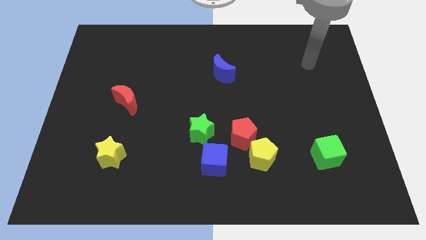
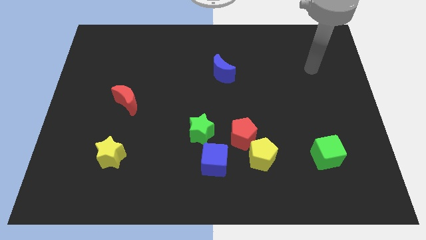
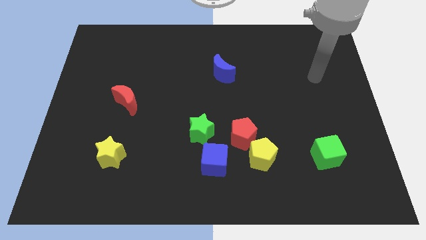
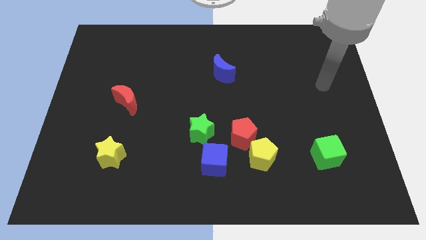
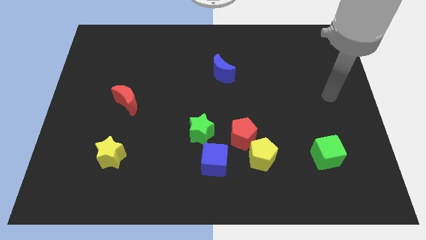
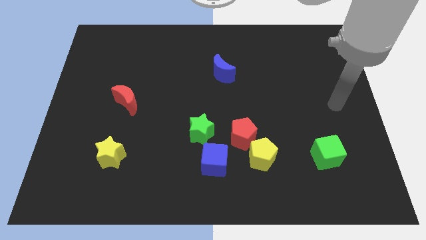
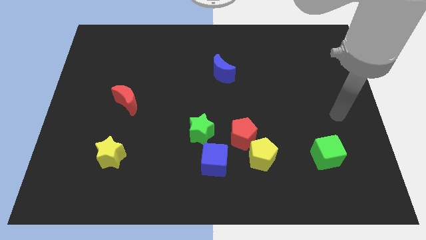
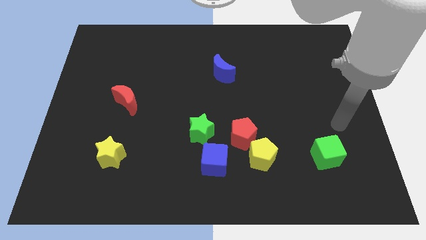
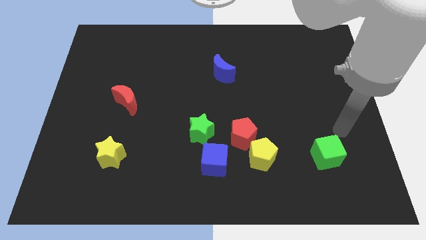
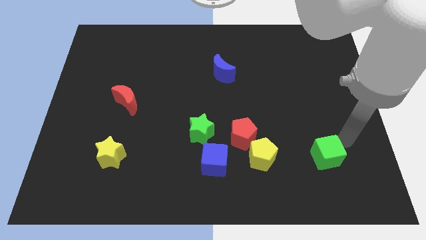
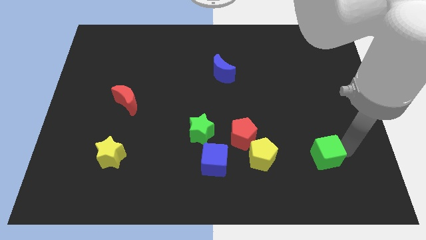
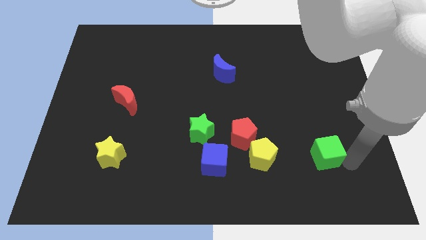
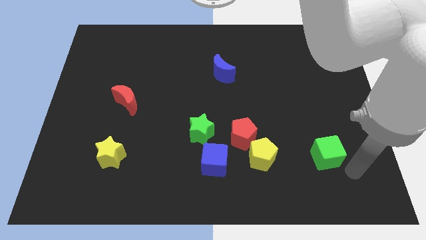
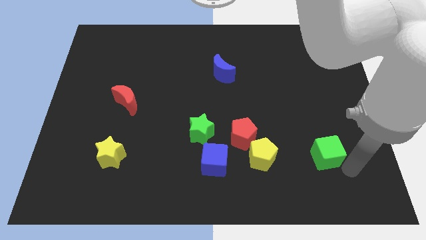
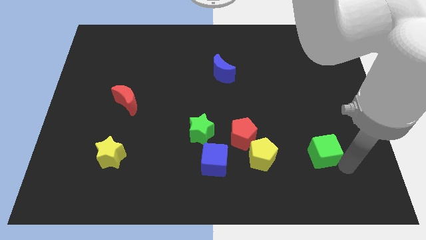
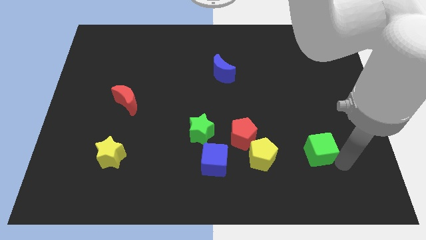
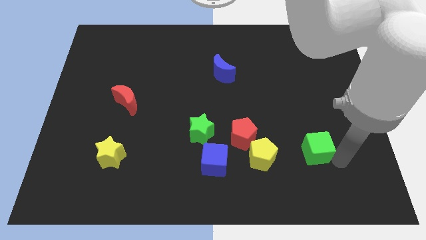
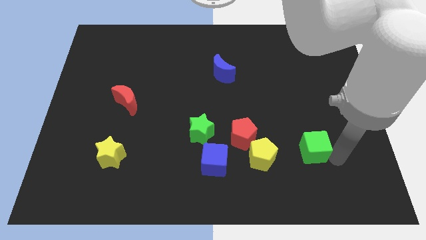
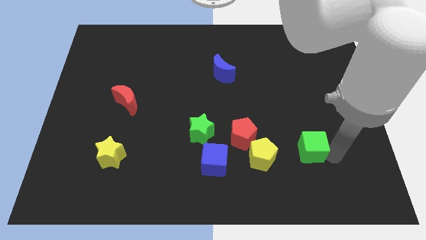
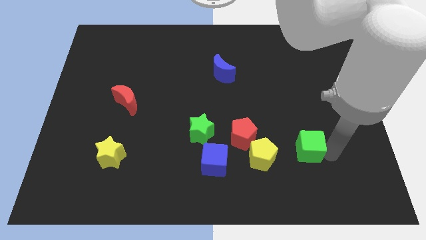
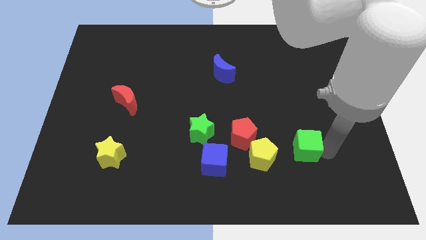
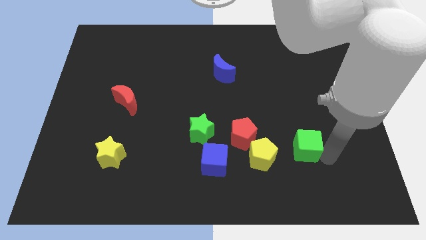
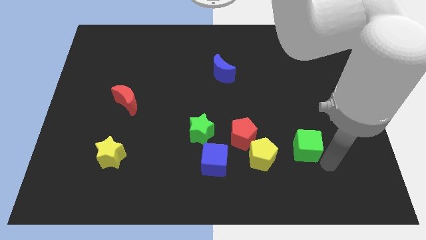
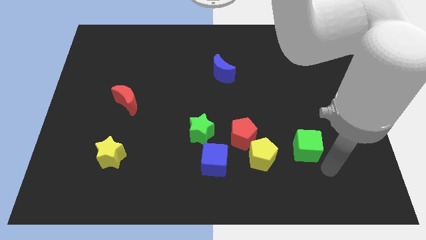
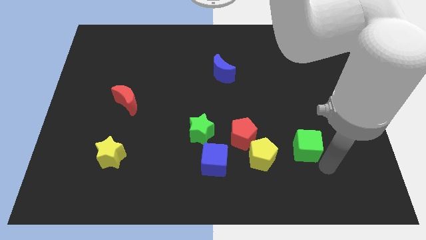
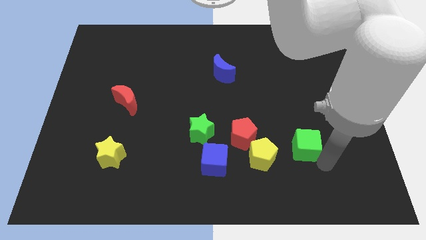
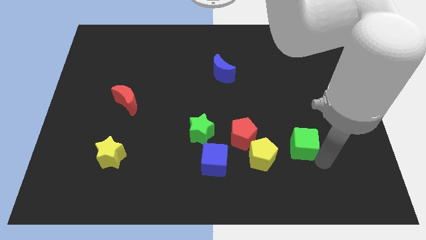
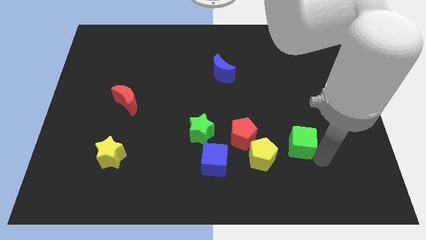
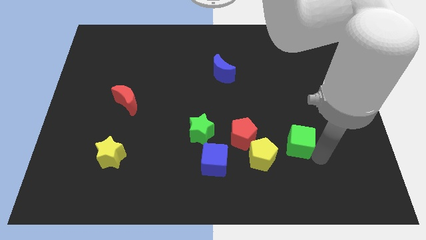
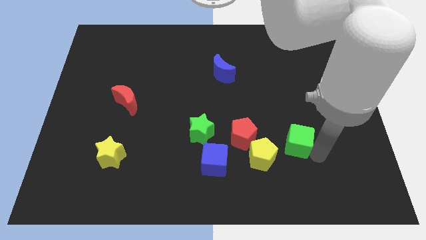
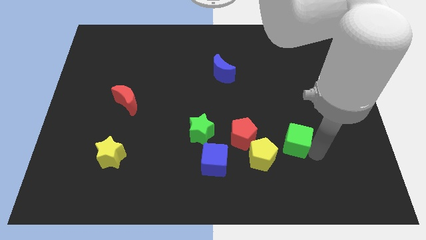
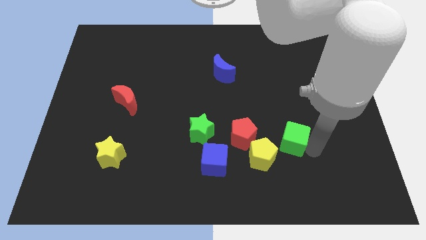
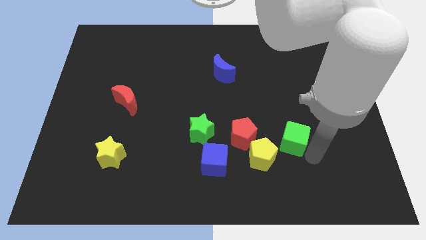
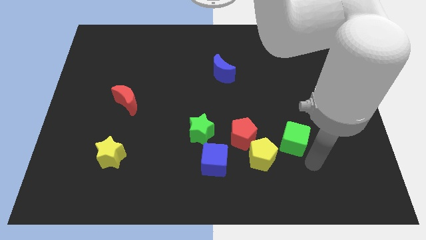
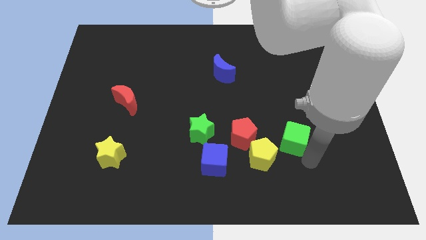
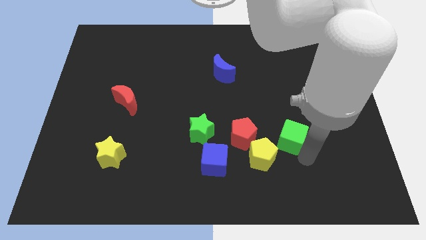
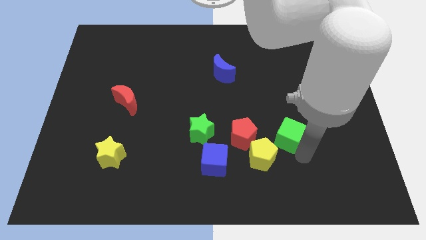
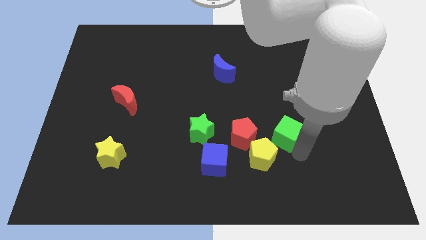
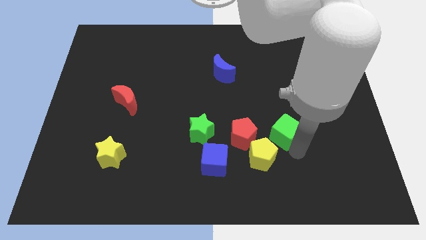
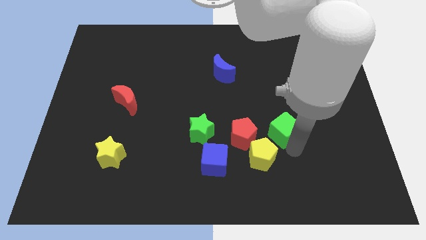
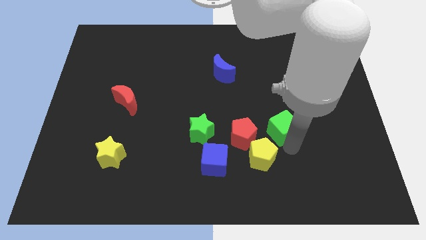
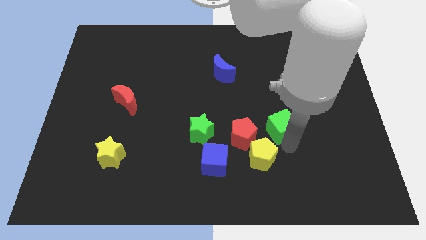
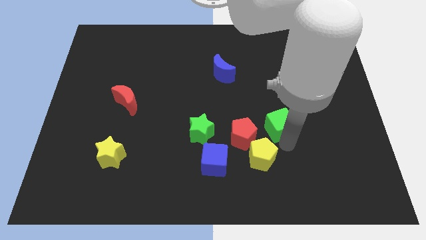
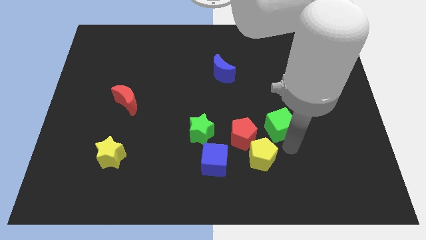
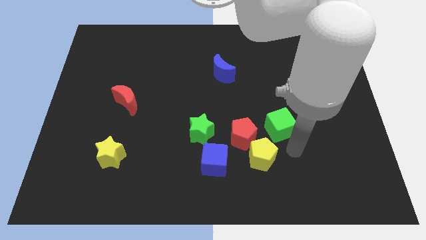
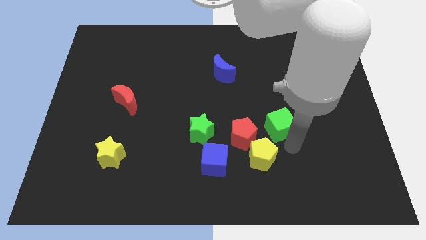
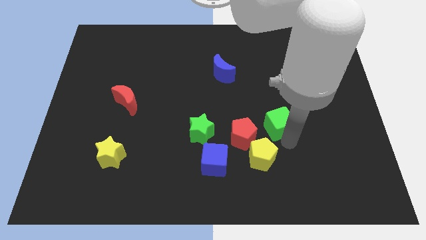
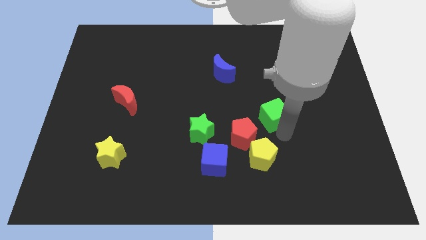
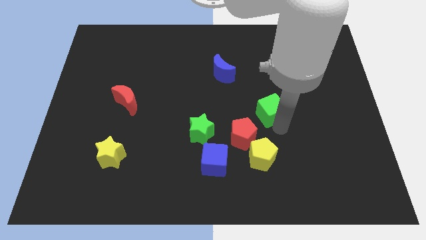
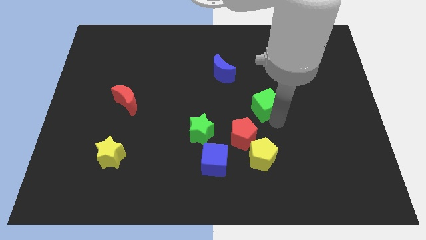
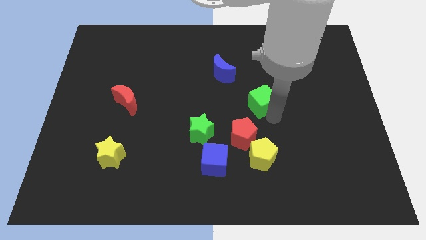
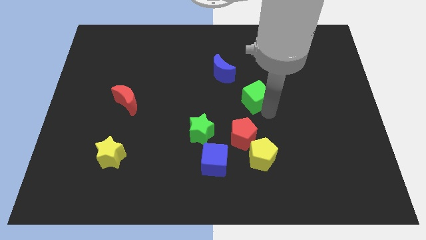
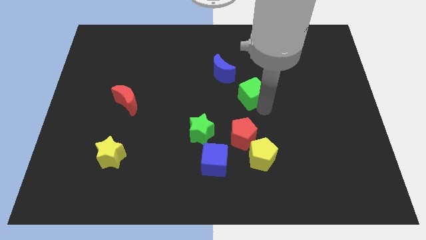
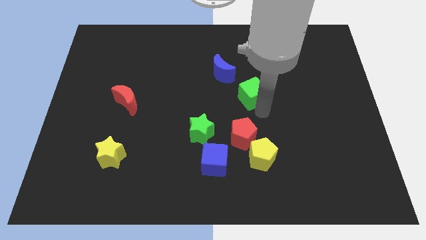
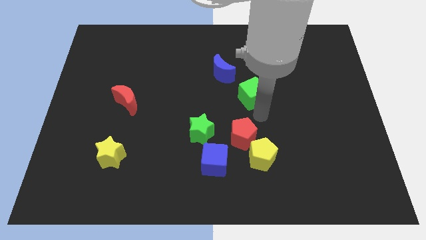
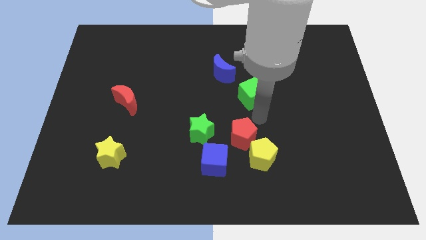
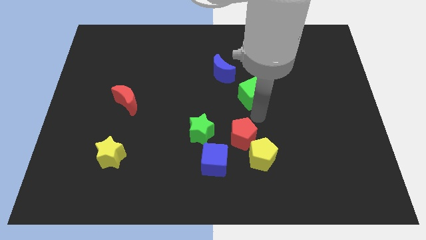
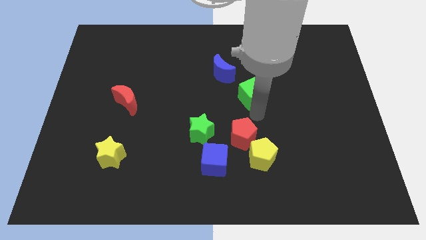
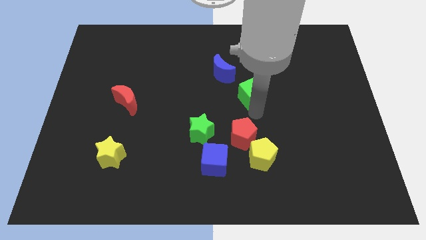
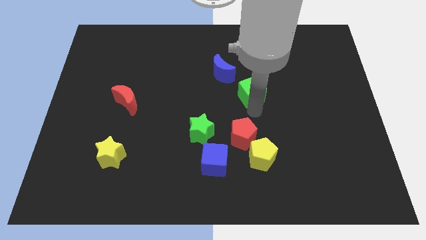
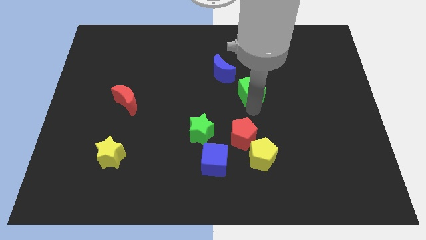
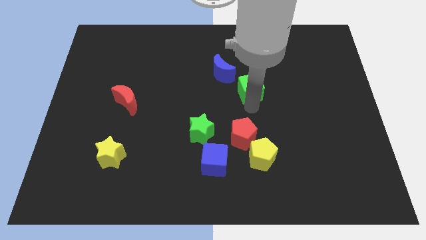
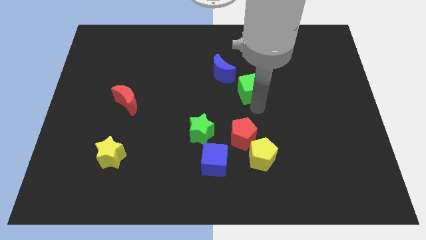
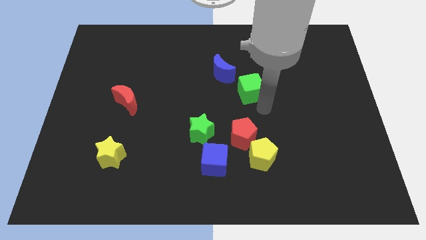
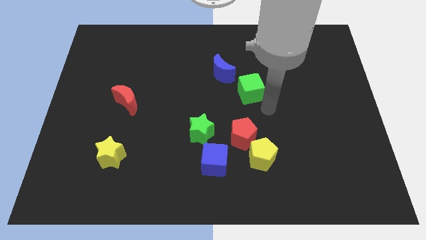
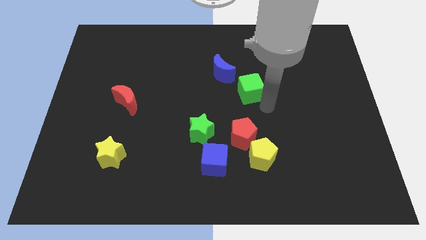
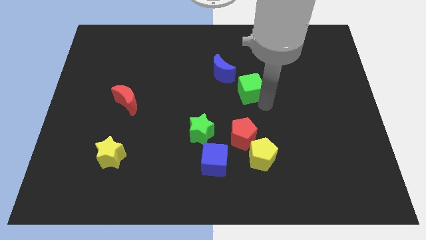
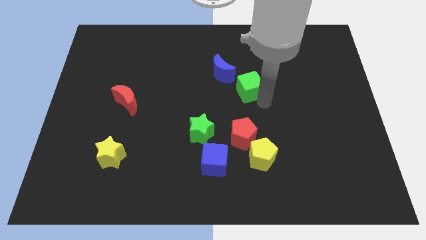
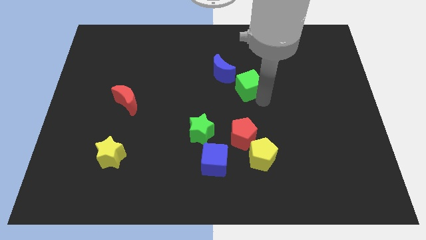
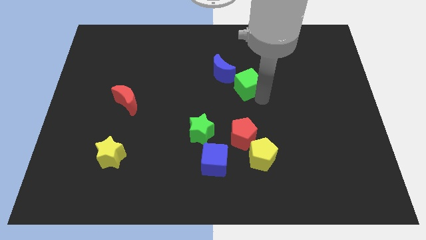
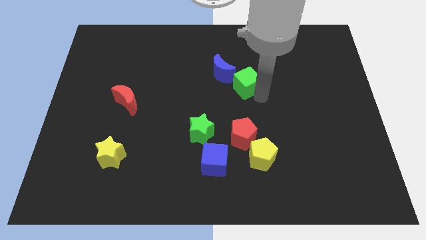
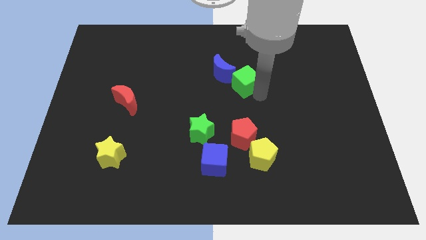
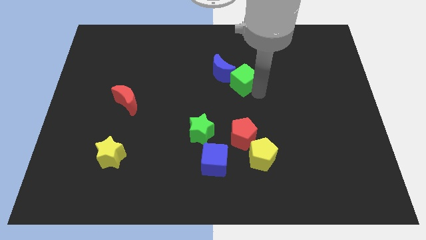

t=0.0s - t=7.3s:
slide the green cube towards the blue moon
